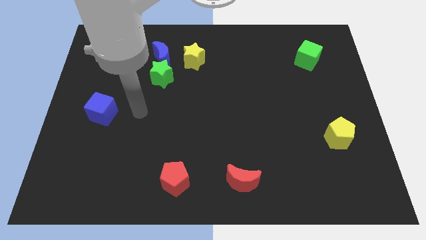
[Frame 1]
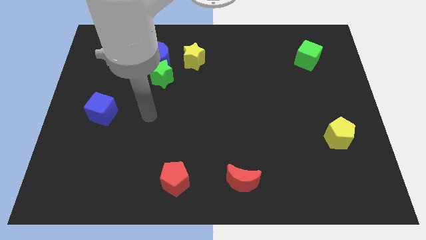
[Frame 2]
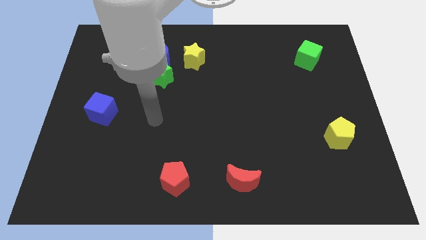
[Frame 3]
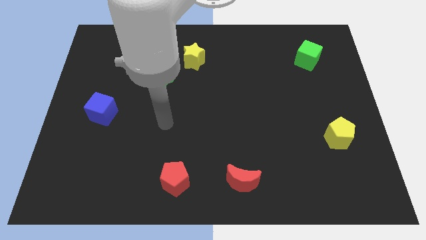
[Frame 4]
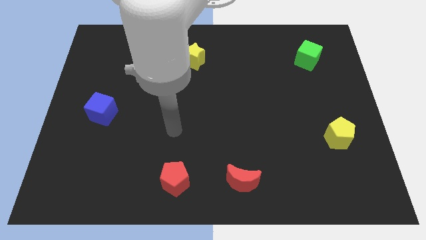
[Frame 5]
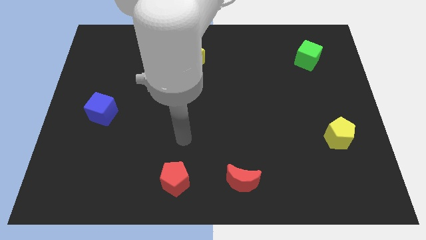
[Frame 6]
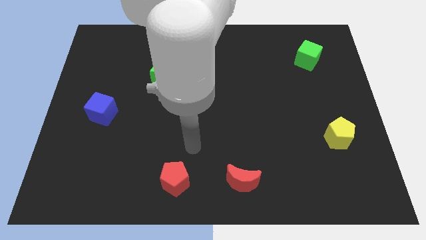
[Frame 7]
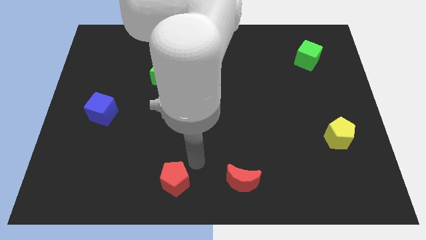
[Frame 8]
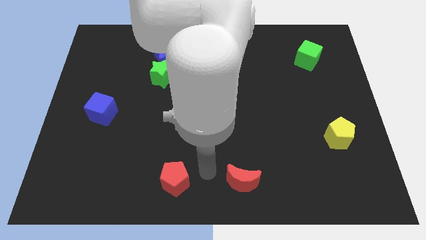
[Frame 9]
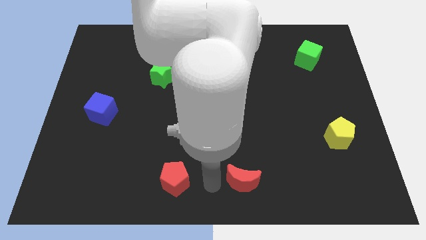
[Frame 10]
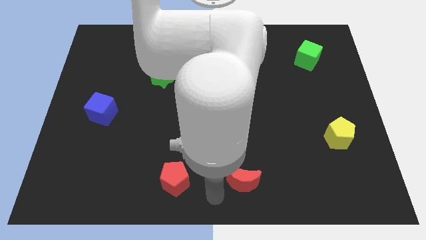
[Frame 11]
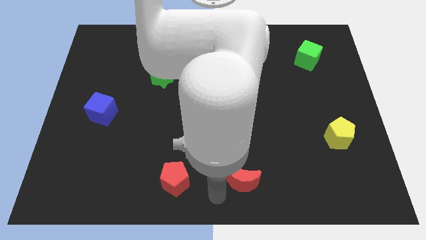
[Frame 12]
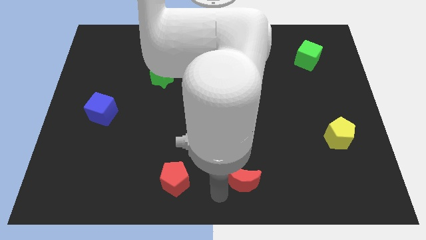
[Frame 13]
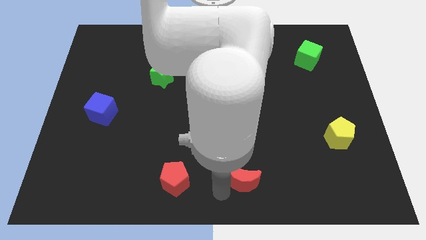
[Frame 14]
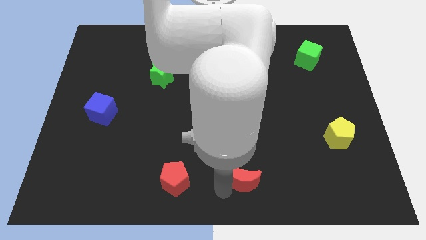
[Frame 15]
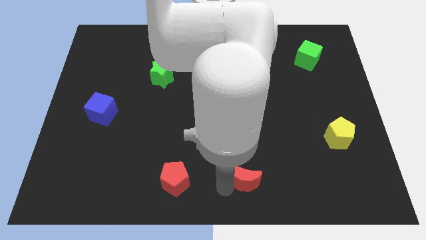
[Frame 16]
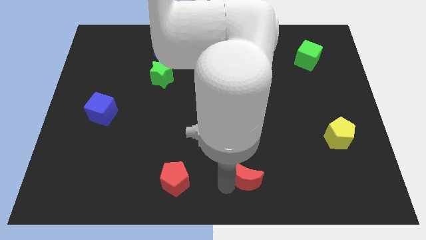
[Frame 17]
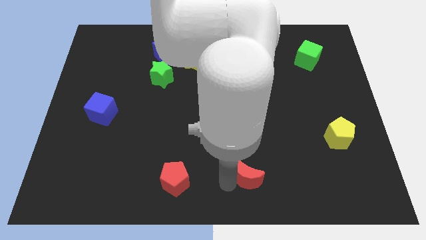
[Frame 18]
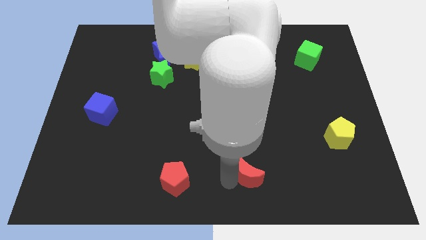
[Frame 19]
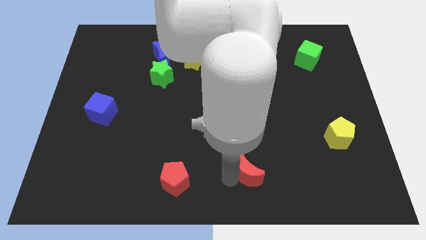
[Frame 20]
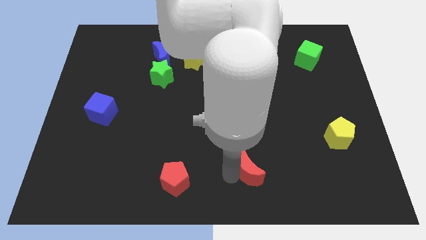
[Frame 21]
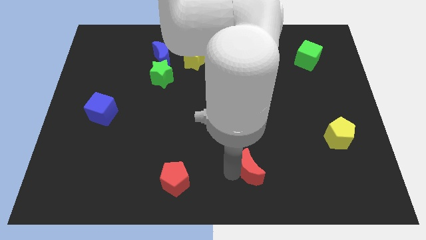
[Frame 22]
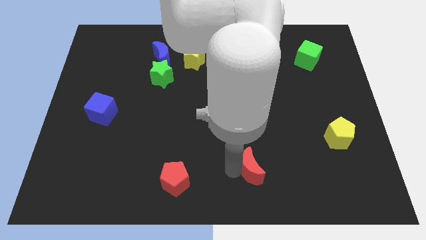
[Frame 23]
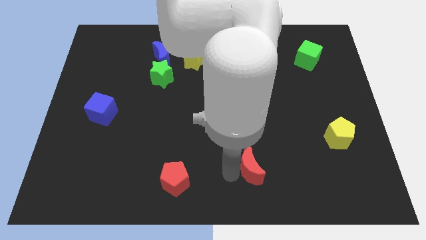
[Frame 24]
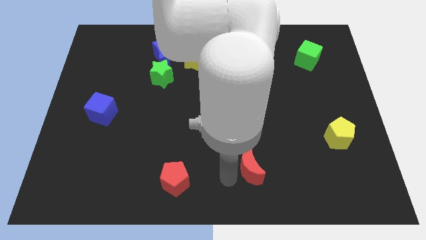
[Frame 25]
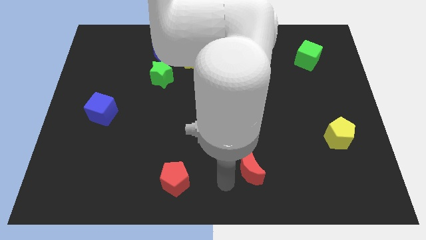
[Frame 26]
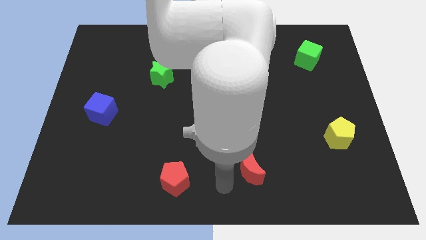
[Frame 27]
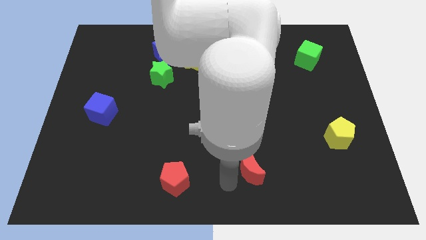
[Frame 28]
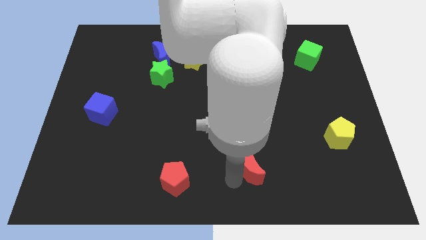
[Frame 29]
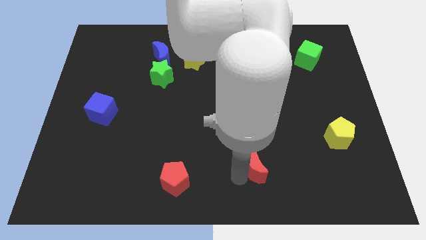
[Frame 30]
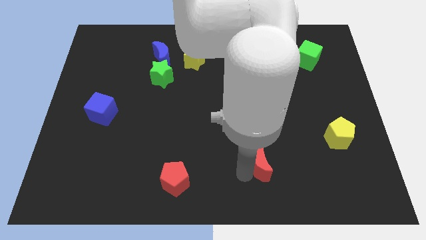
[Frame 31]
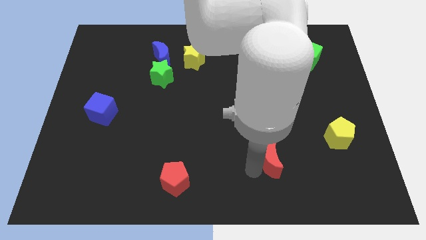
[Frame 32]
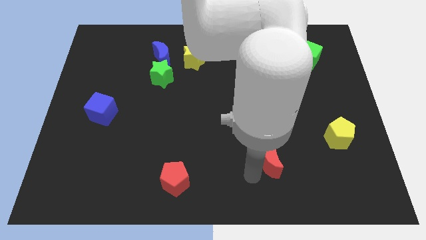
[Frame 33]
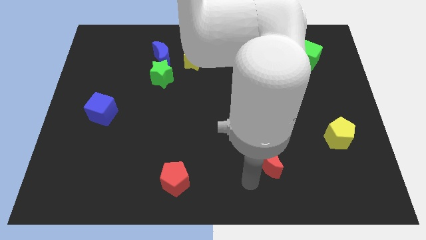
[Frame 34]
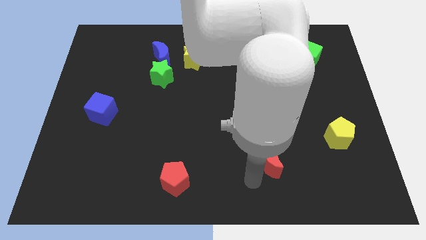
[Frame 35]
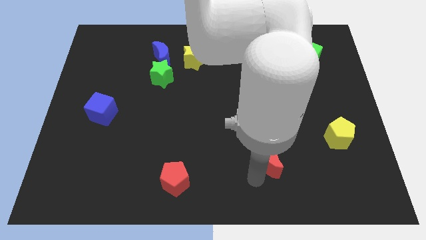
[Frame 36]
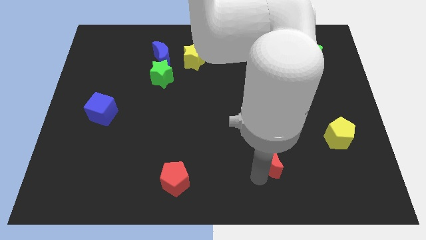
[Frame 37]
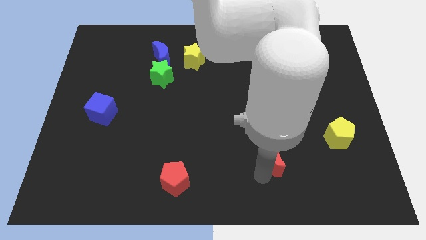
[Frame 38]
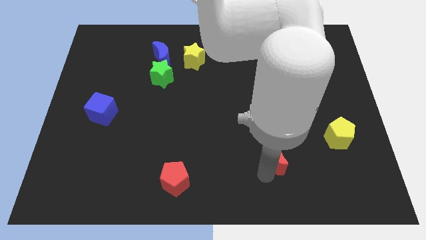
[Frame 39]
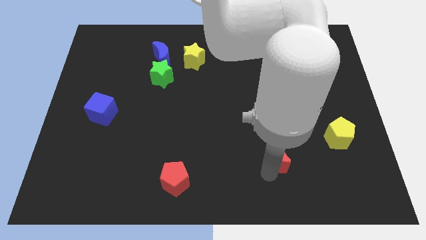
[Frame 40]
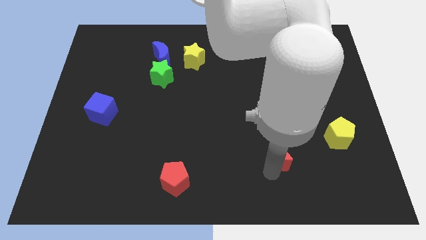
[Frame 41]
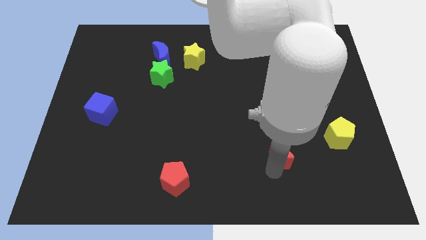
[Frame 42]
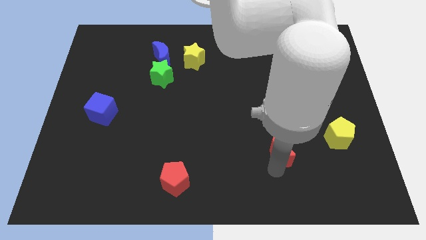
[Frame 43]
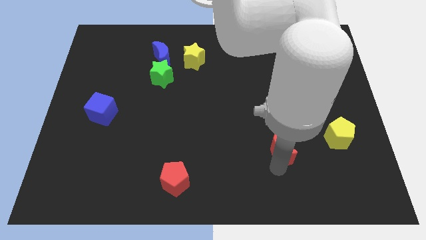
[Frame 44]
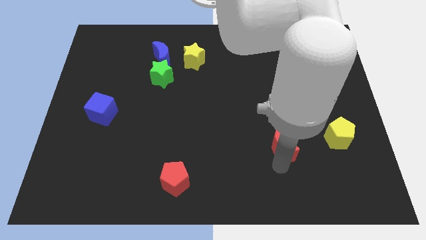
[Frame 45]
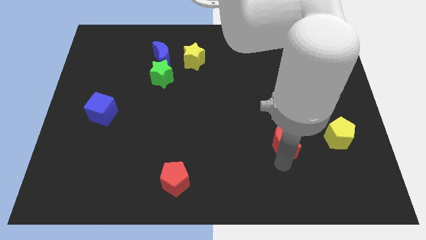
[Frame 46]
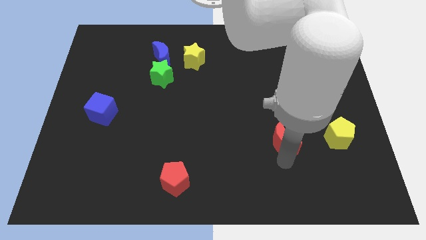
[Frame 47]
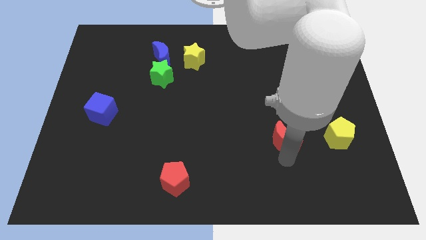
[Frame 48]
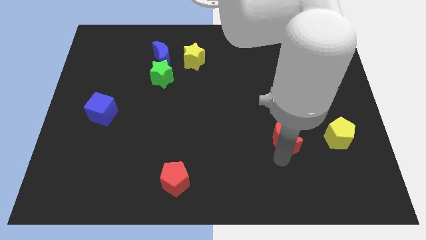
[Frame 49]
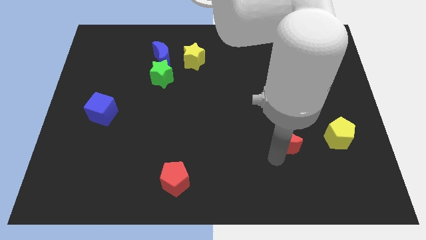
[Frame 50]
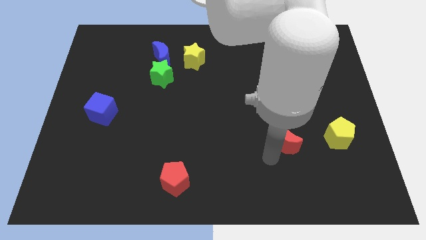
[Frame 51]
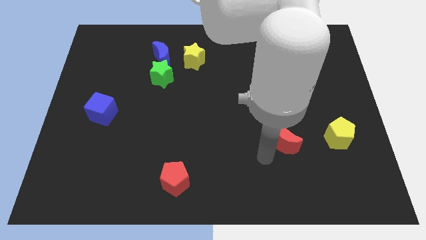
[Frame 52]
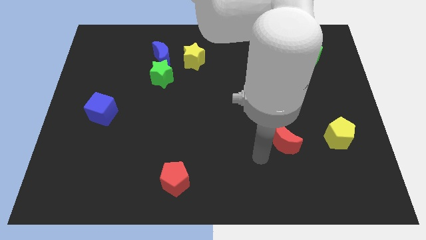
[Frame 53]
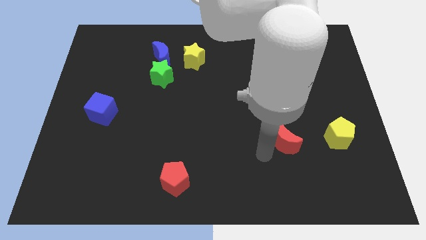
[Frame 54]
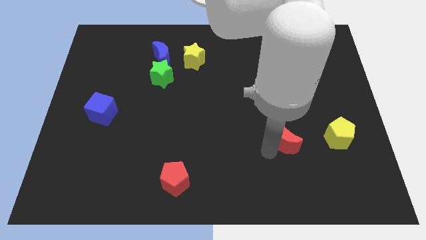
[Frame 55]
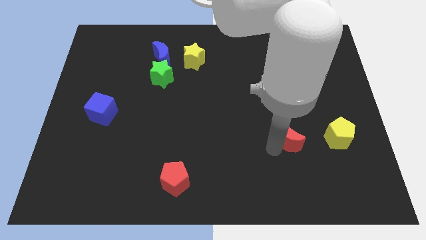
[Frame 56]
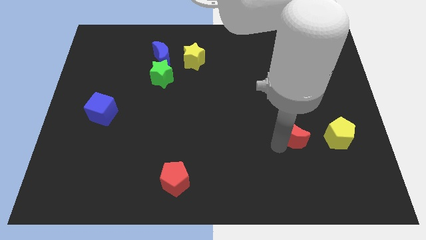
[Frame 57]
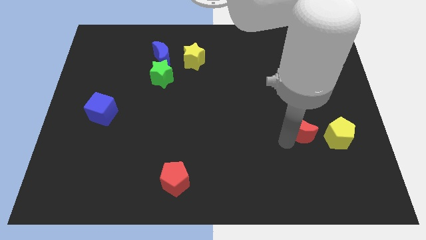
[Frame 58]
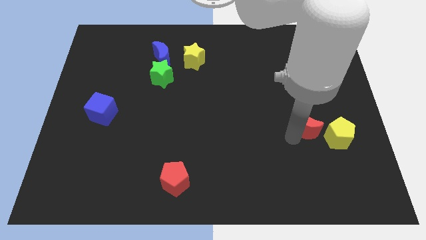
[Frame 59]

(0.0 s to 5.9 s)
move the red moon diagonally upwards and right

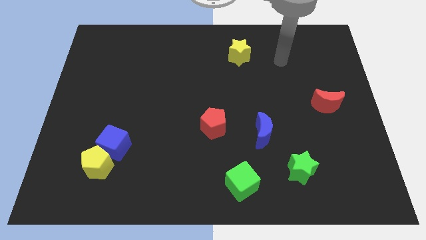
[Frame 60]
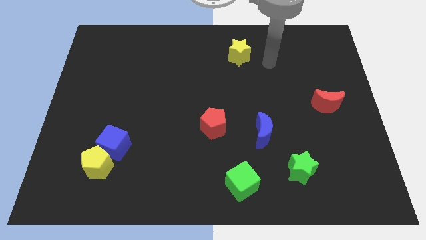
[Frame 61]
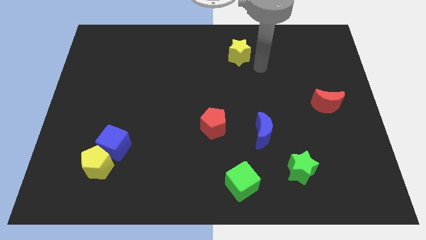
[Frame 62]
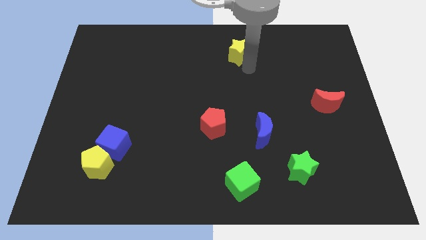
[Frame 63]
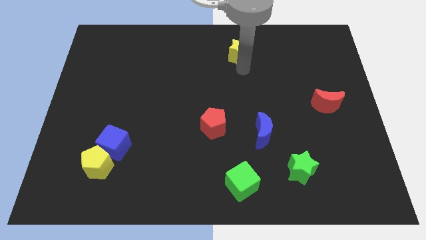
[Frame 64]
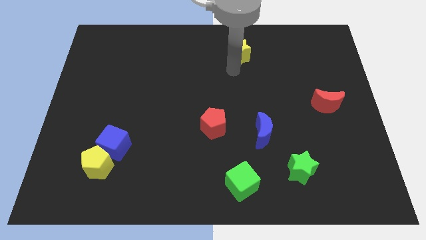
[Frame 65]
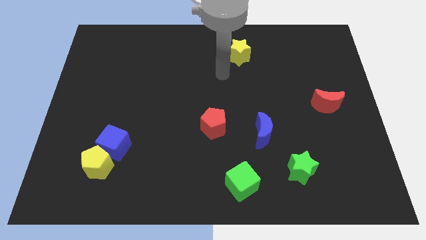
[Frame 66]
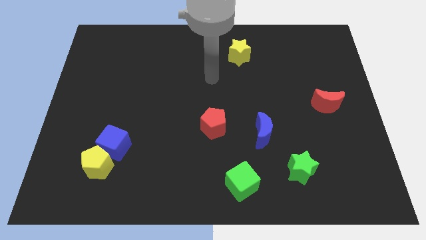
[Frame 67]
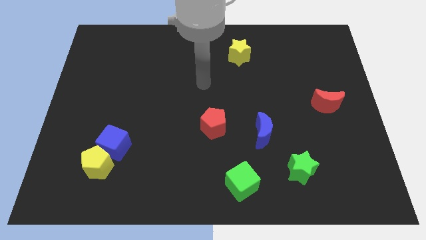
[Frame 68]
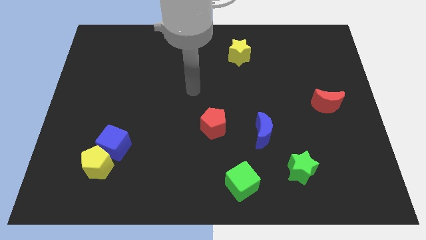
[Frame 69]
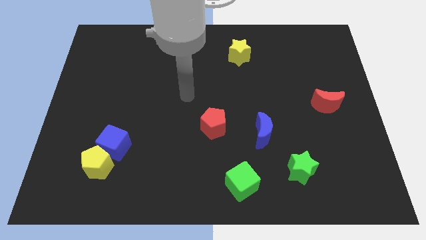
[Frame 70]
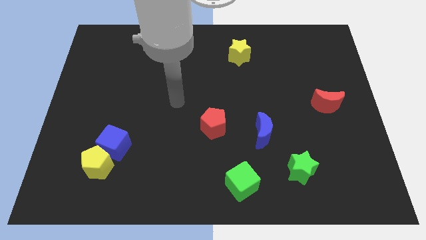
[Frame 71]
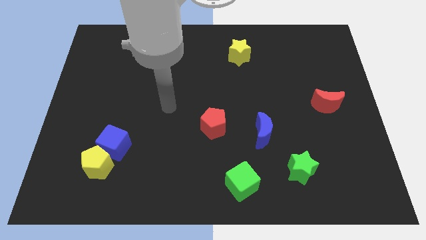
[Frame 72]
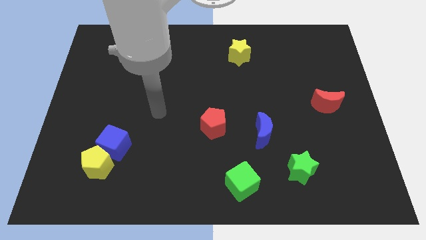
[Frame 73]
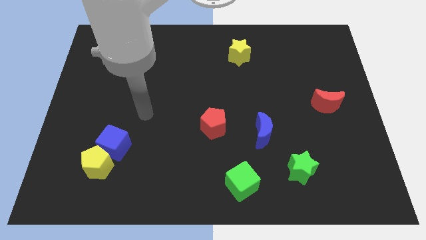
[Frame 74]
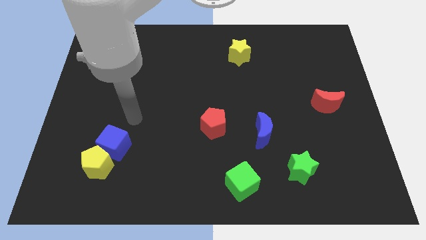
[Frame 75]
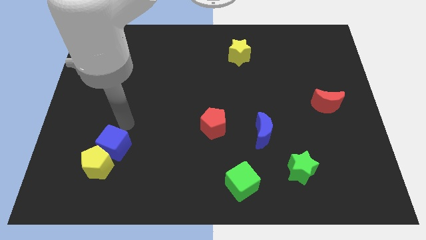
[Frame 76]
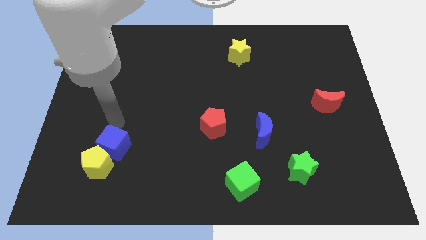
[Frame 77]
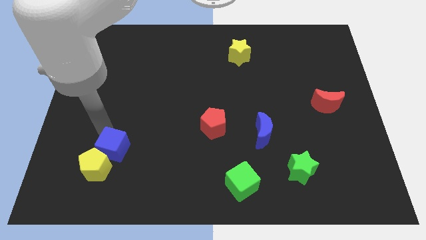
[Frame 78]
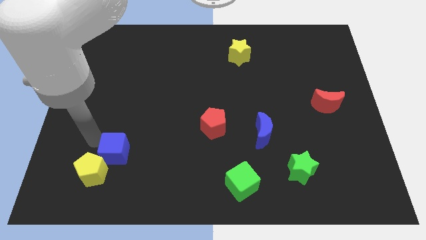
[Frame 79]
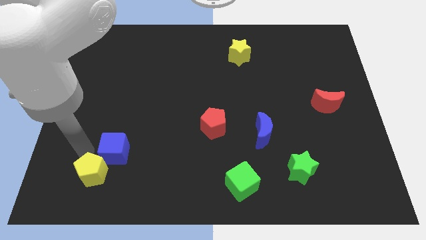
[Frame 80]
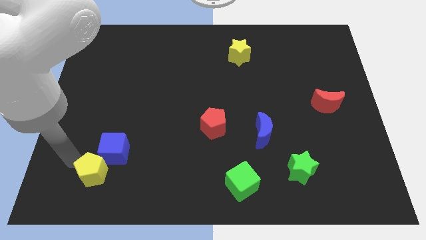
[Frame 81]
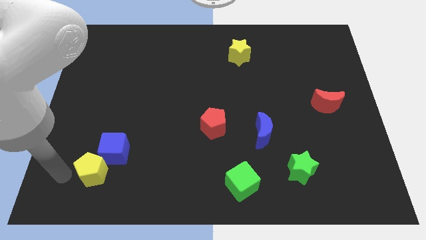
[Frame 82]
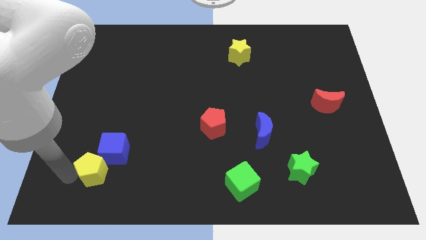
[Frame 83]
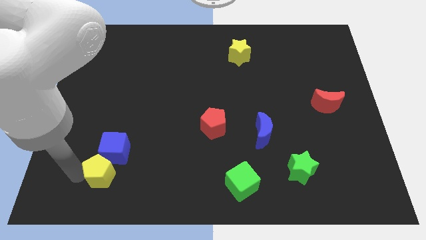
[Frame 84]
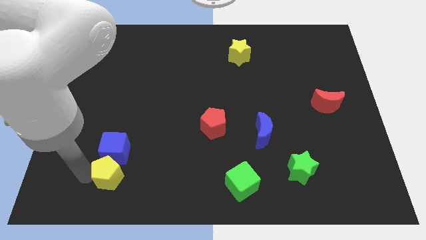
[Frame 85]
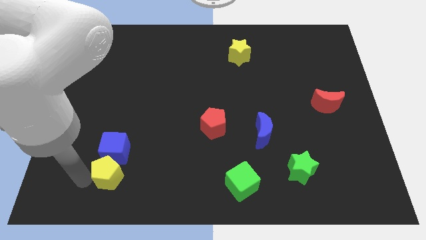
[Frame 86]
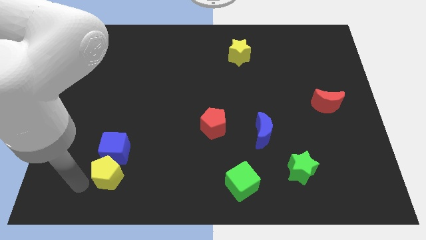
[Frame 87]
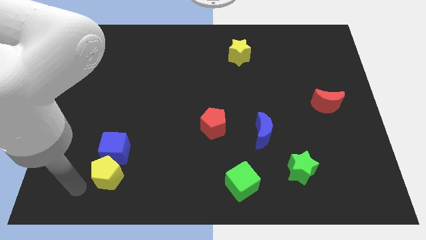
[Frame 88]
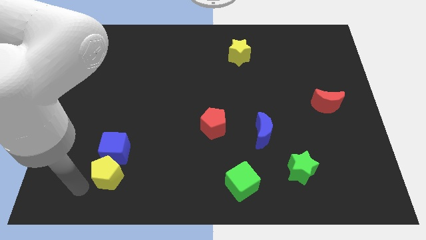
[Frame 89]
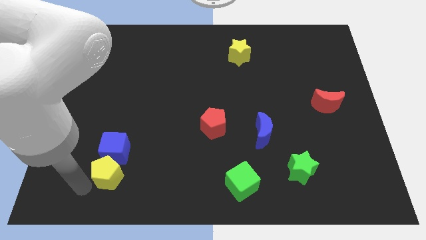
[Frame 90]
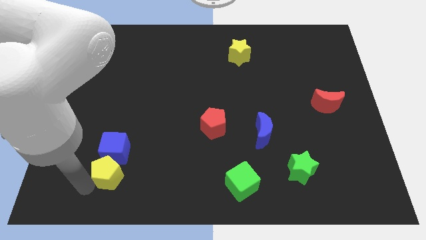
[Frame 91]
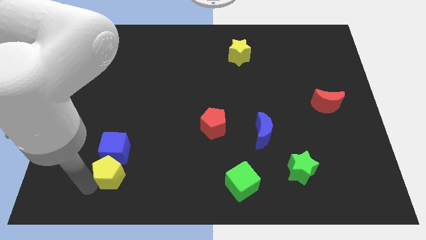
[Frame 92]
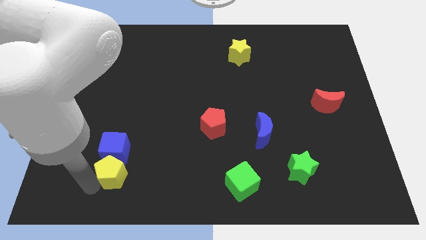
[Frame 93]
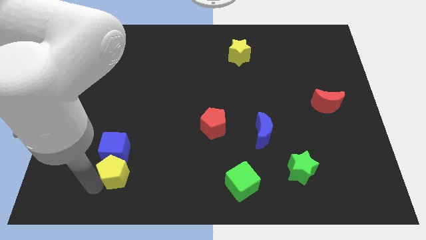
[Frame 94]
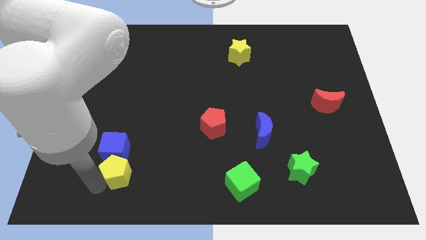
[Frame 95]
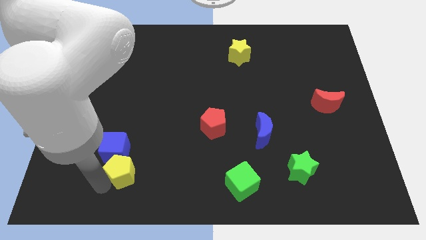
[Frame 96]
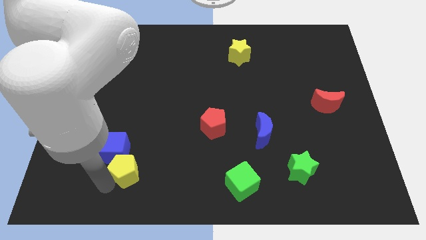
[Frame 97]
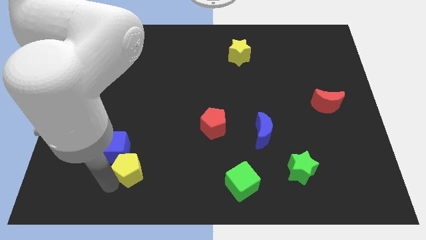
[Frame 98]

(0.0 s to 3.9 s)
push the yellow pentagon slightly to the right
